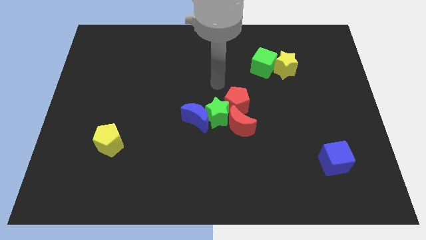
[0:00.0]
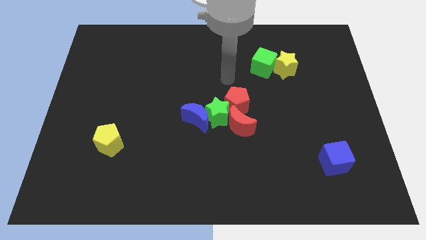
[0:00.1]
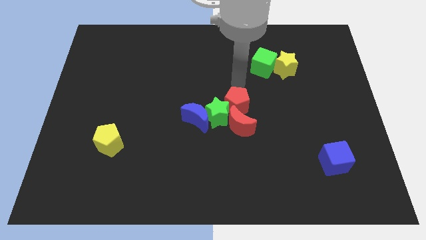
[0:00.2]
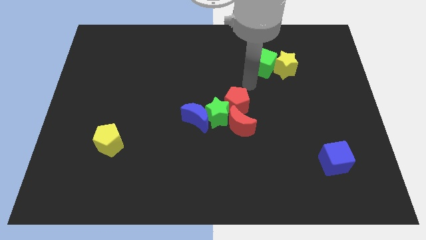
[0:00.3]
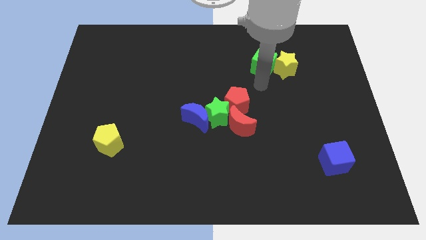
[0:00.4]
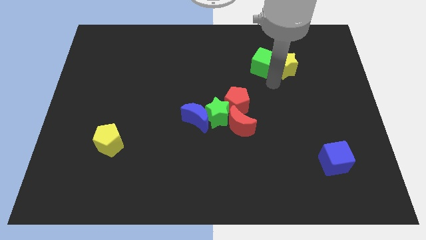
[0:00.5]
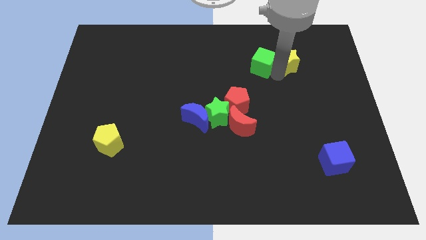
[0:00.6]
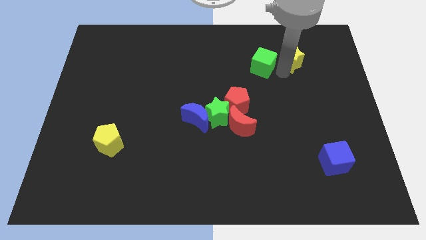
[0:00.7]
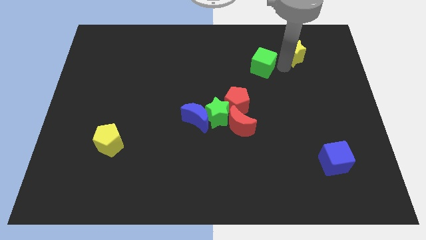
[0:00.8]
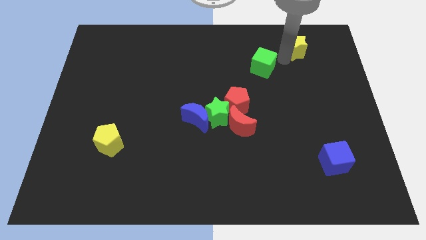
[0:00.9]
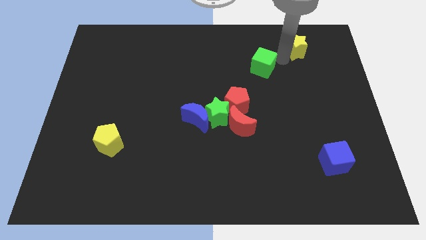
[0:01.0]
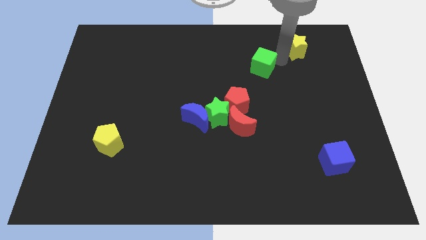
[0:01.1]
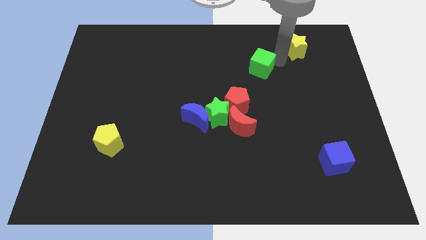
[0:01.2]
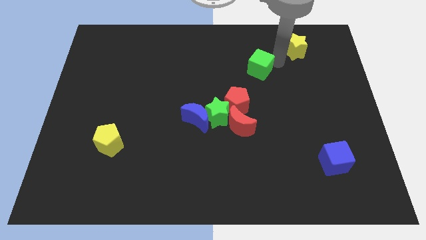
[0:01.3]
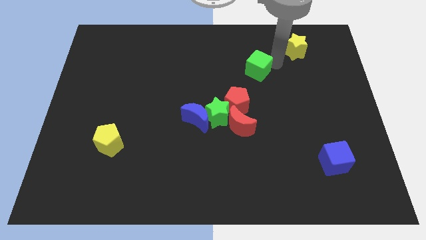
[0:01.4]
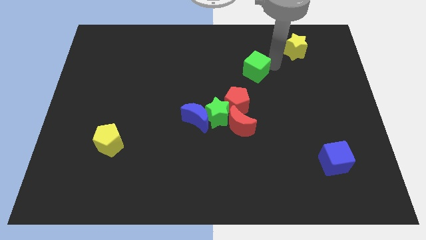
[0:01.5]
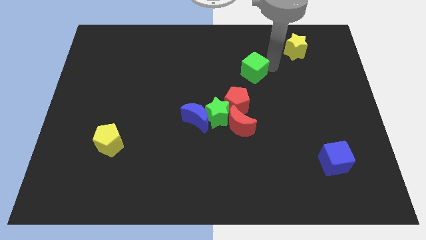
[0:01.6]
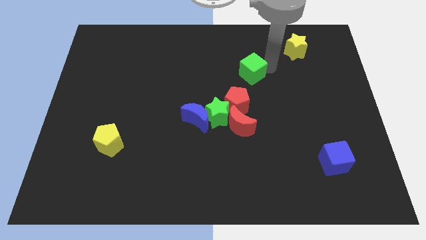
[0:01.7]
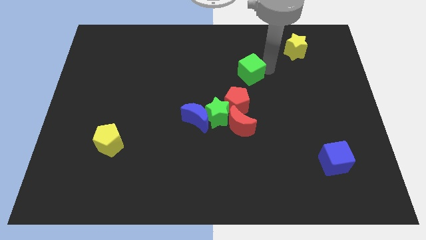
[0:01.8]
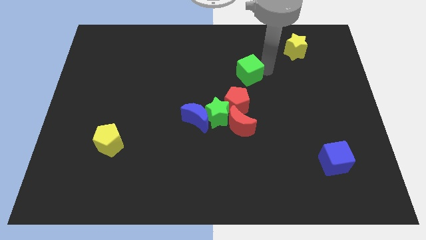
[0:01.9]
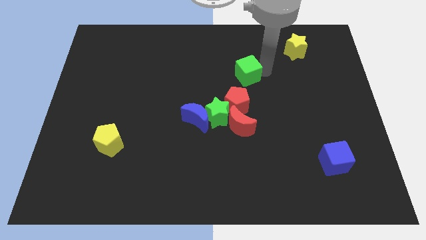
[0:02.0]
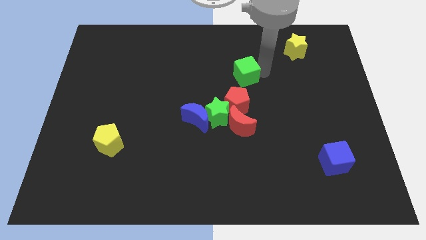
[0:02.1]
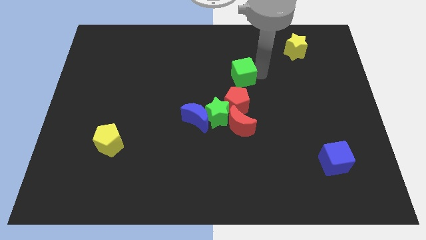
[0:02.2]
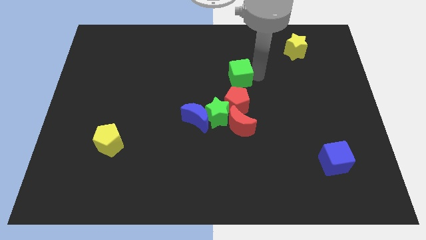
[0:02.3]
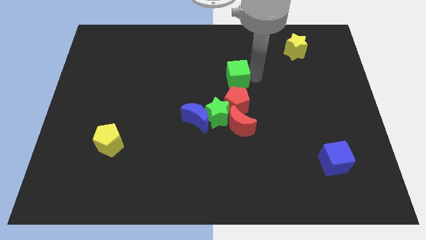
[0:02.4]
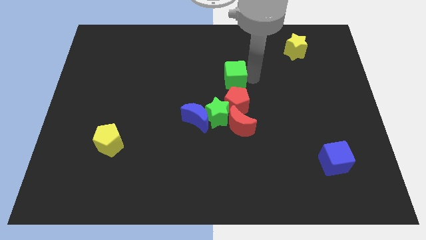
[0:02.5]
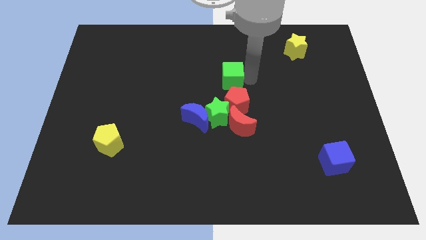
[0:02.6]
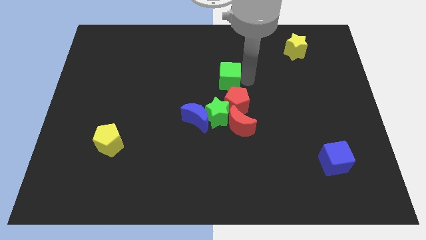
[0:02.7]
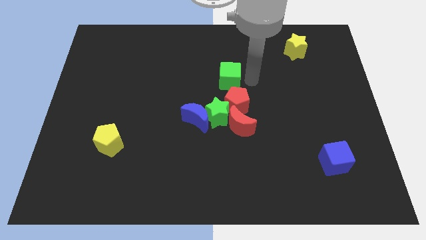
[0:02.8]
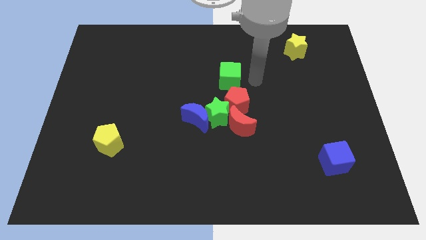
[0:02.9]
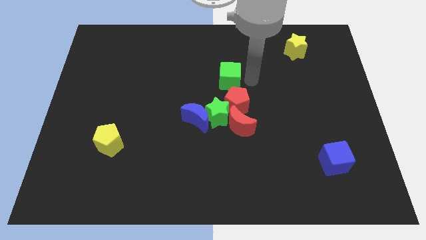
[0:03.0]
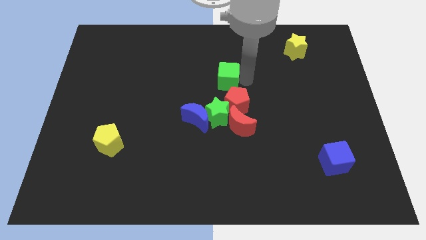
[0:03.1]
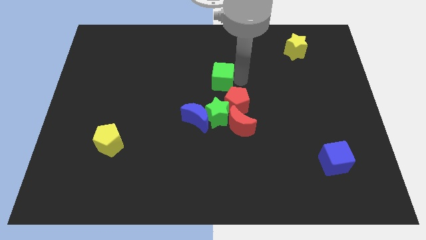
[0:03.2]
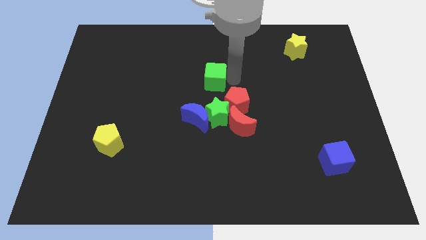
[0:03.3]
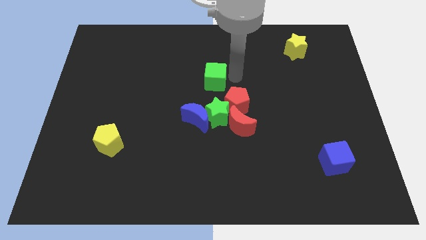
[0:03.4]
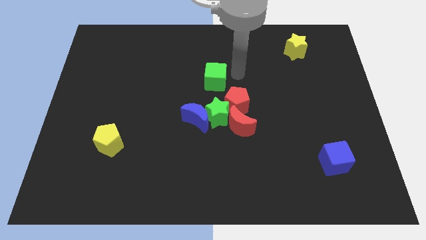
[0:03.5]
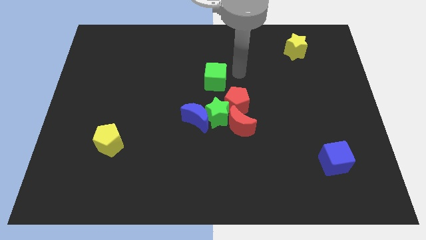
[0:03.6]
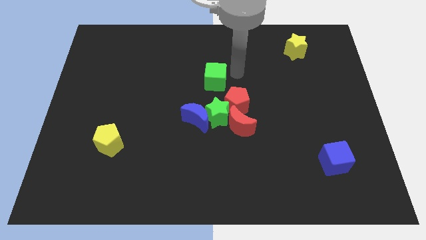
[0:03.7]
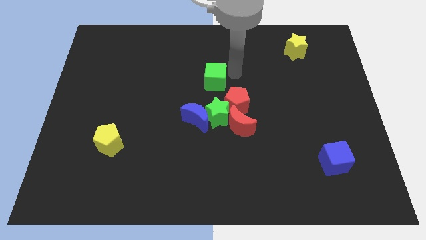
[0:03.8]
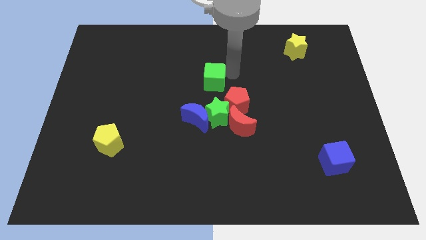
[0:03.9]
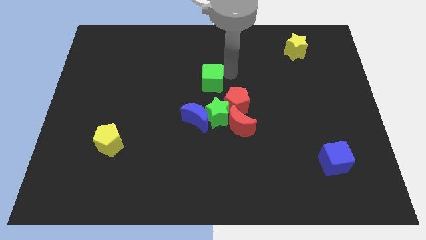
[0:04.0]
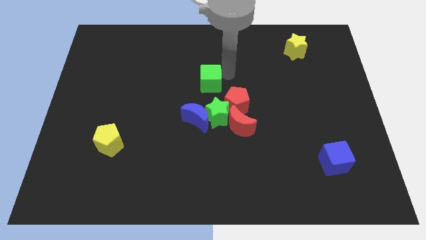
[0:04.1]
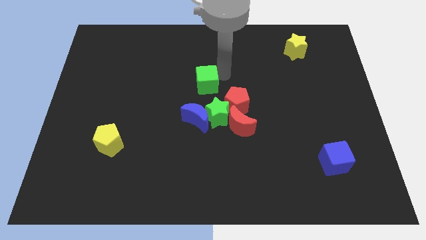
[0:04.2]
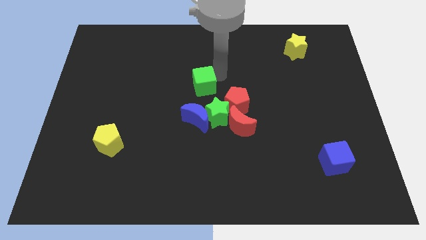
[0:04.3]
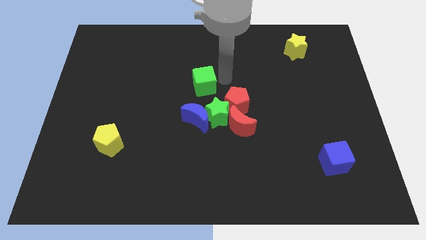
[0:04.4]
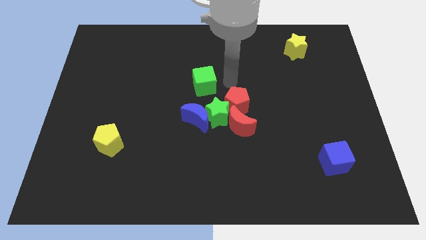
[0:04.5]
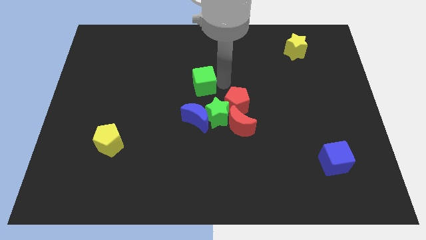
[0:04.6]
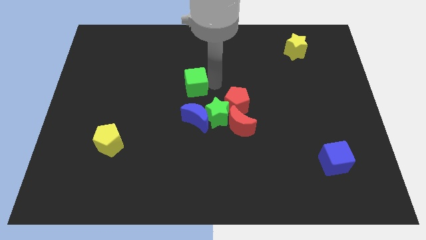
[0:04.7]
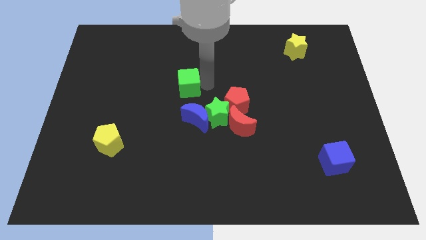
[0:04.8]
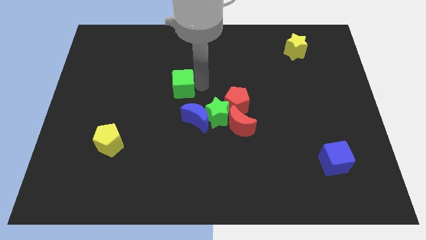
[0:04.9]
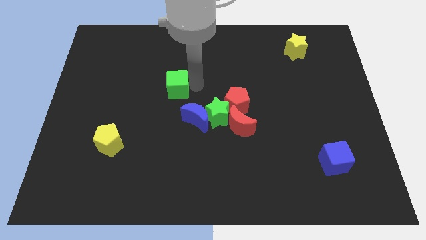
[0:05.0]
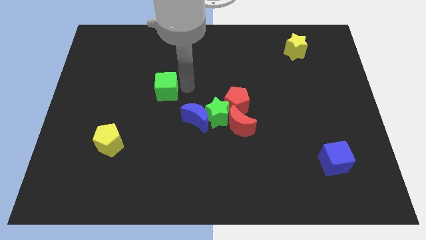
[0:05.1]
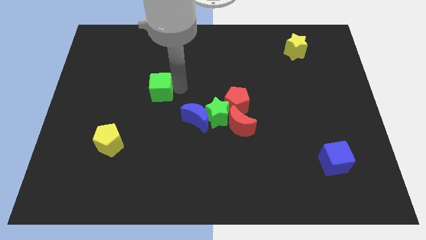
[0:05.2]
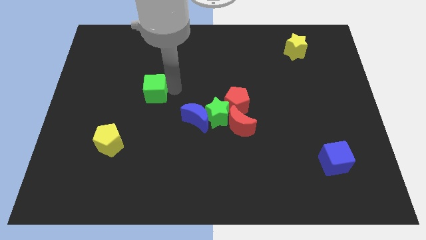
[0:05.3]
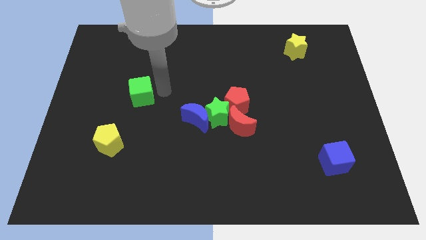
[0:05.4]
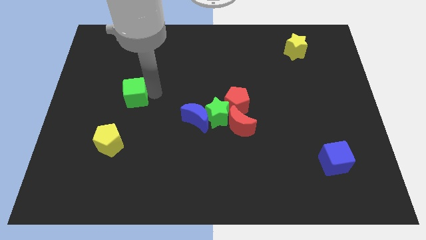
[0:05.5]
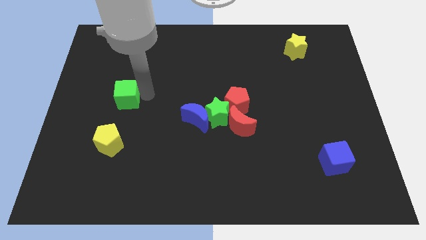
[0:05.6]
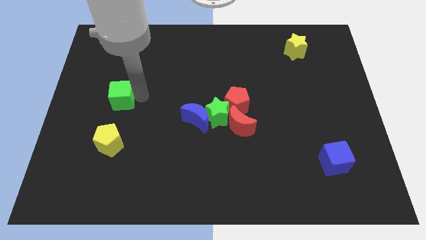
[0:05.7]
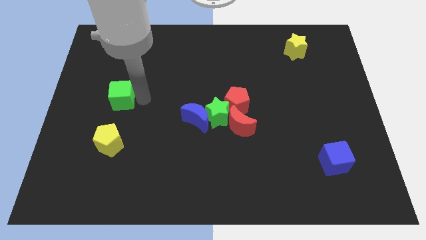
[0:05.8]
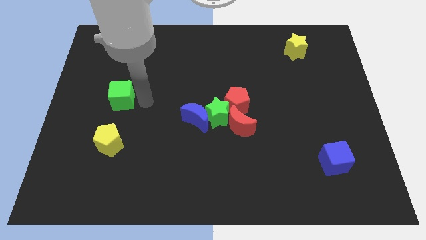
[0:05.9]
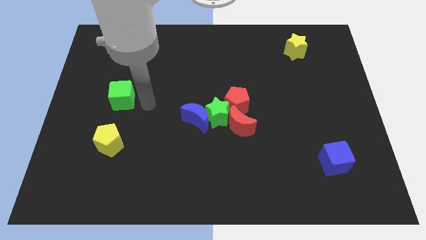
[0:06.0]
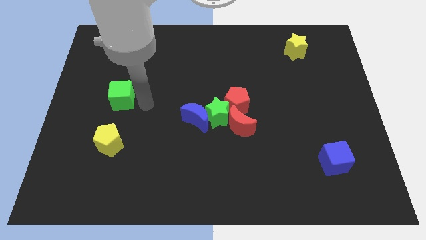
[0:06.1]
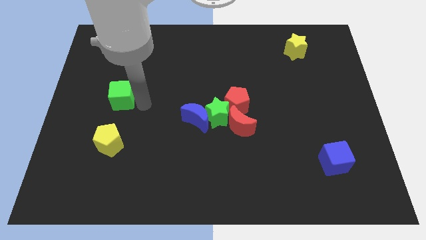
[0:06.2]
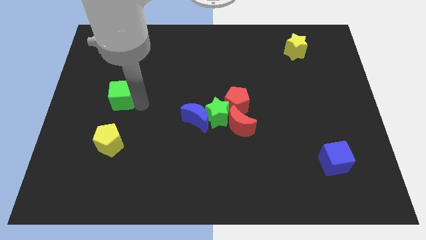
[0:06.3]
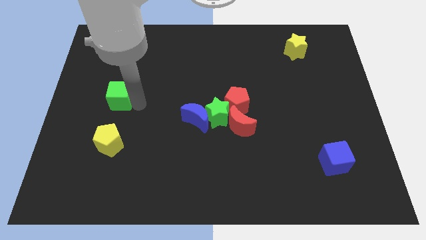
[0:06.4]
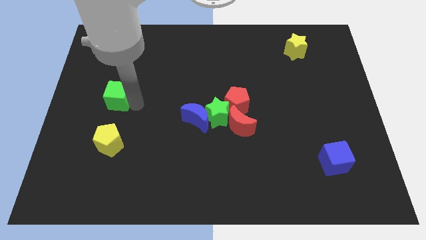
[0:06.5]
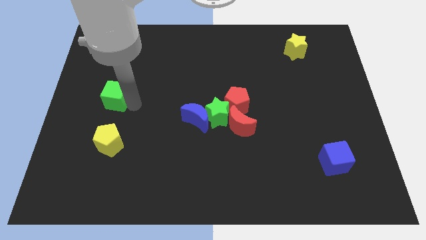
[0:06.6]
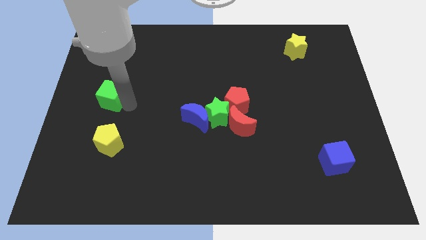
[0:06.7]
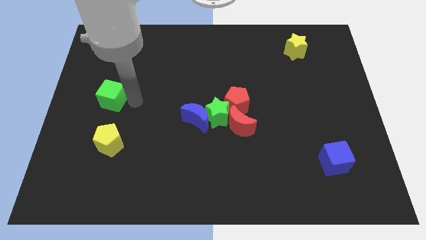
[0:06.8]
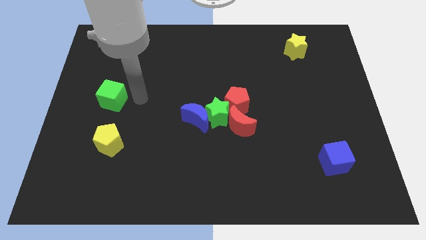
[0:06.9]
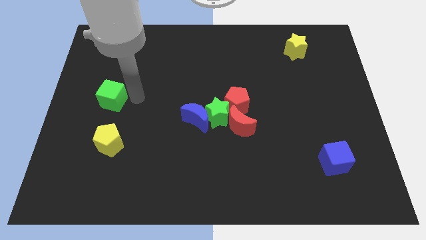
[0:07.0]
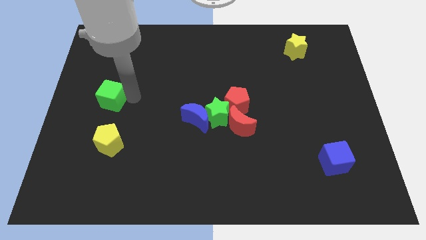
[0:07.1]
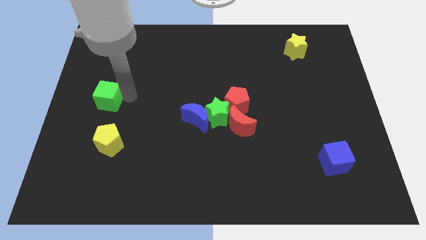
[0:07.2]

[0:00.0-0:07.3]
slide the green cube to the center left
